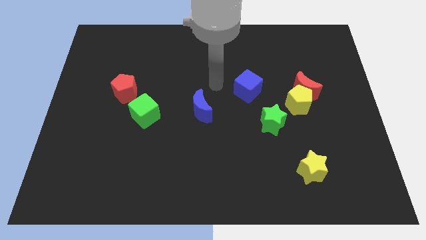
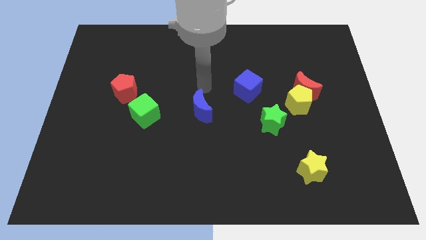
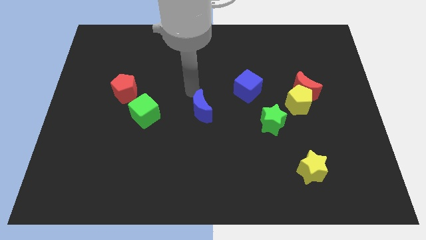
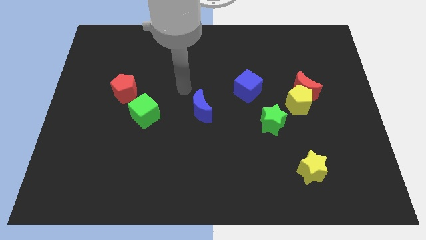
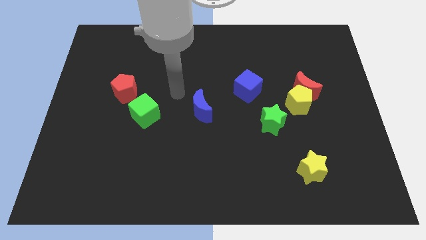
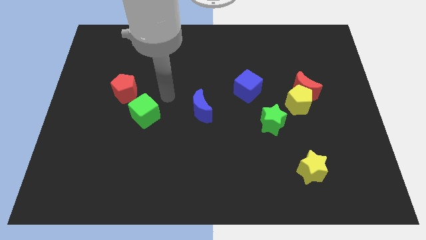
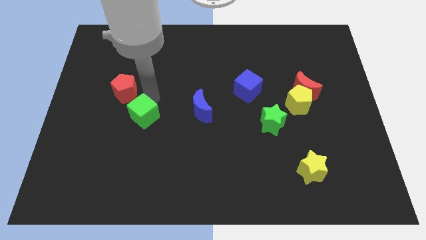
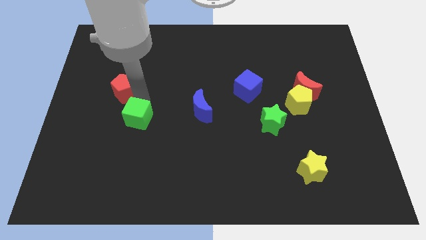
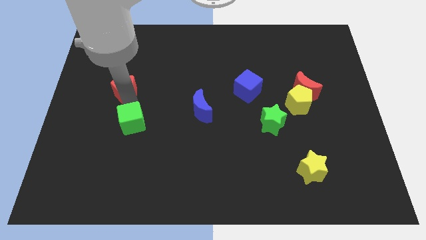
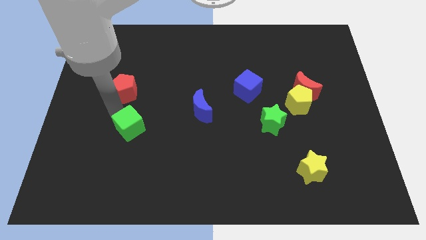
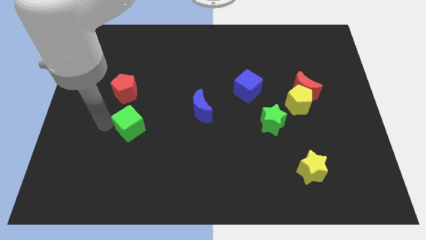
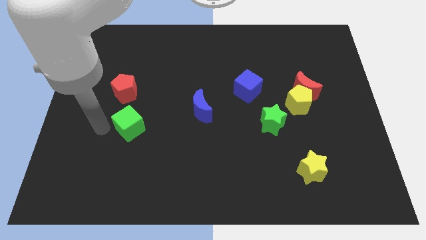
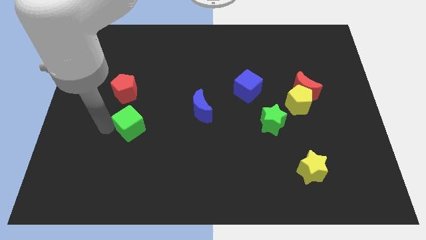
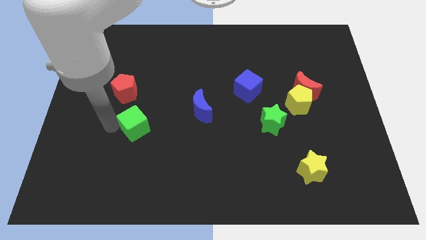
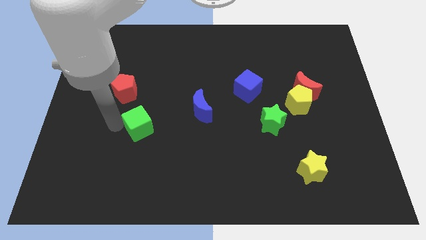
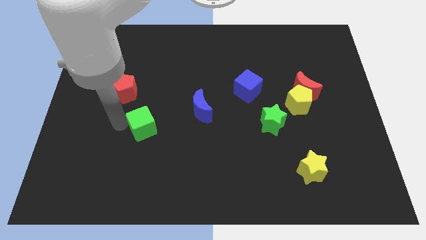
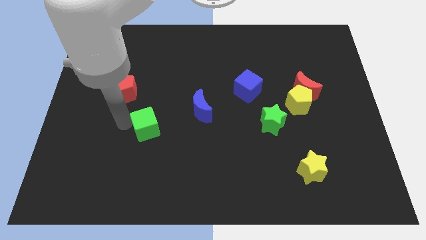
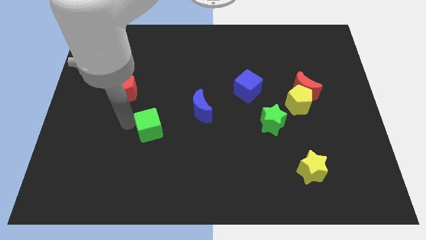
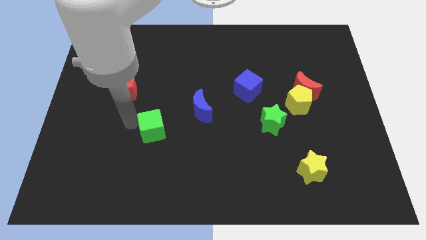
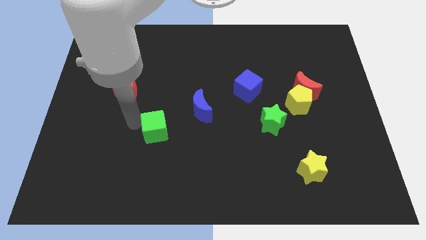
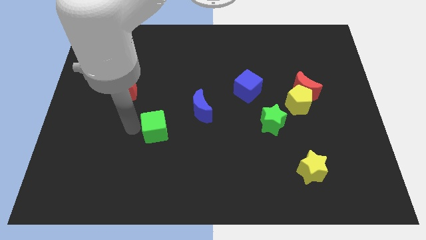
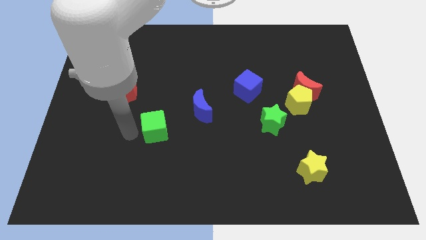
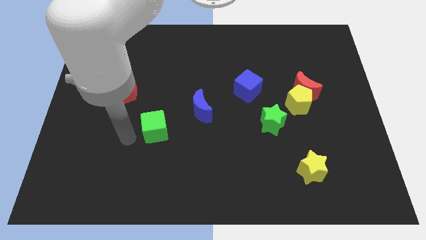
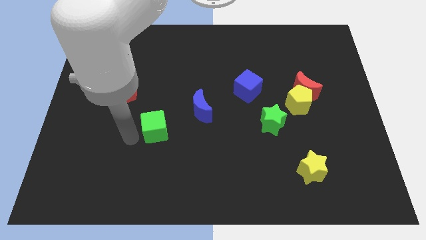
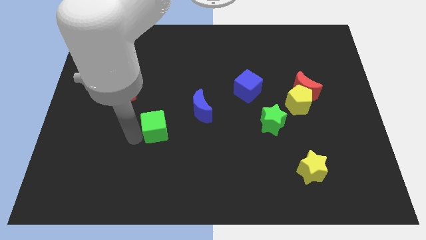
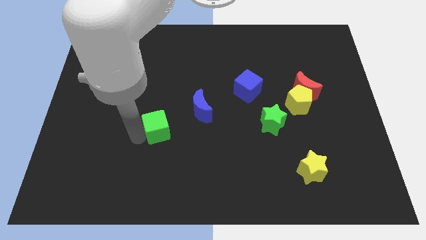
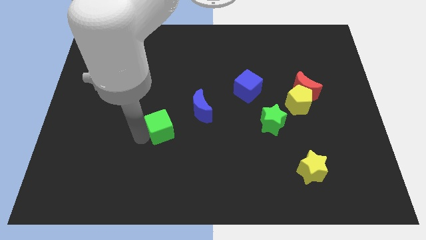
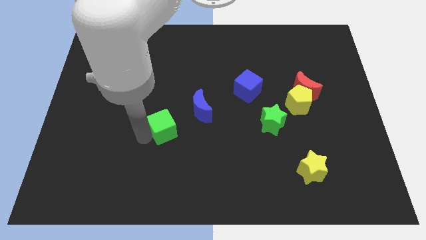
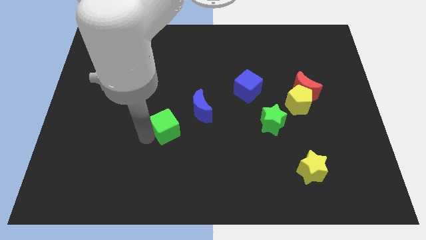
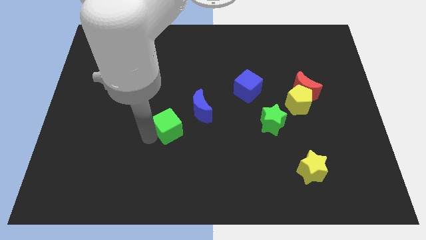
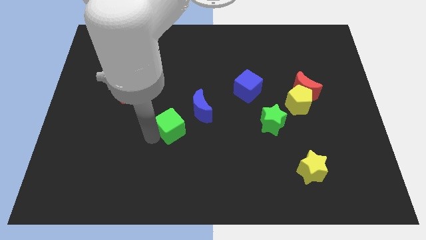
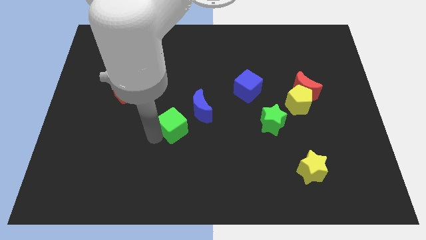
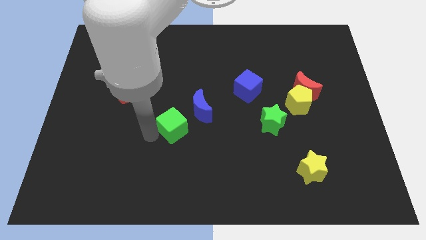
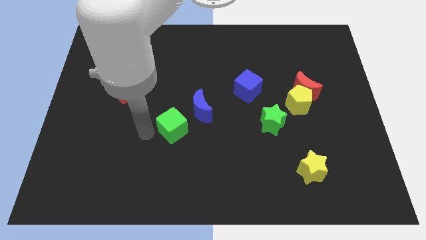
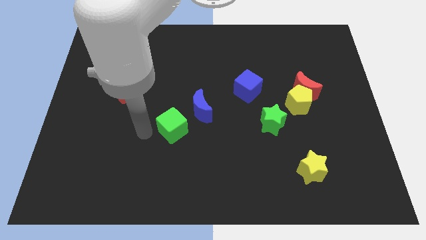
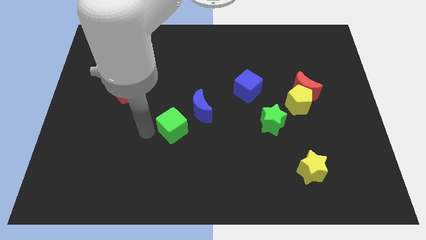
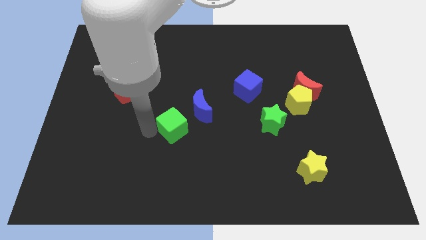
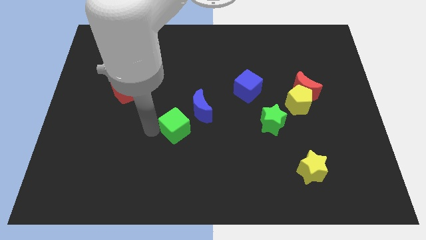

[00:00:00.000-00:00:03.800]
move the green cube a little bit to the right

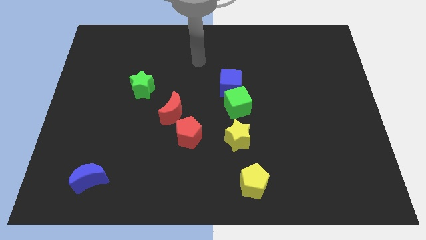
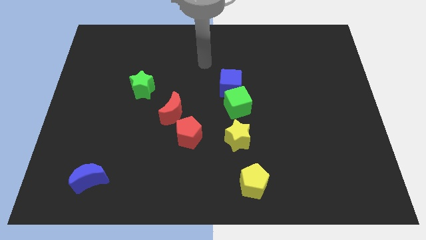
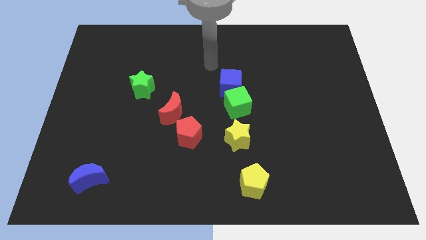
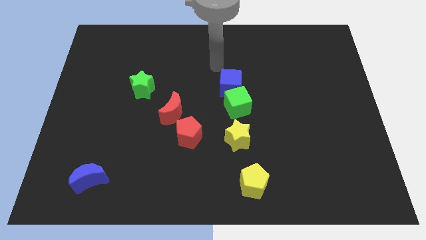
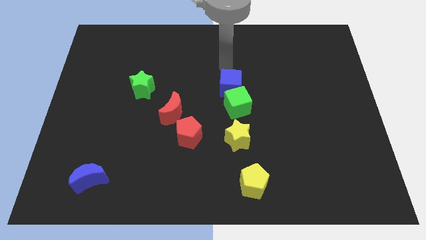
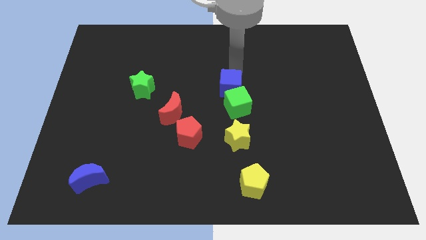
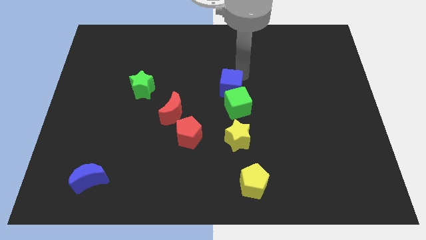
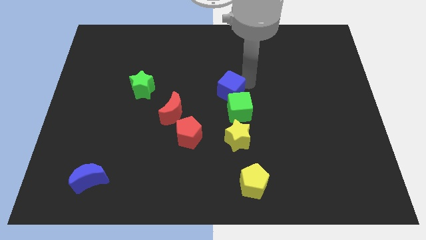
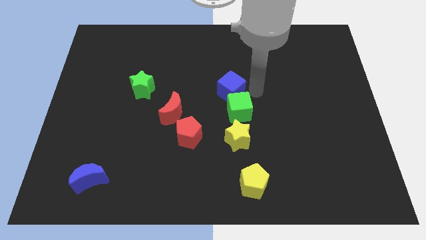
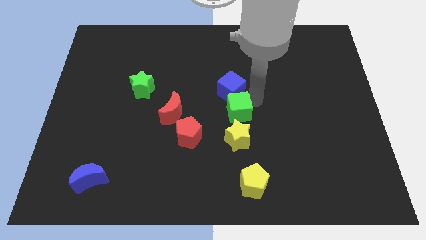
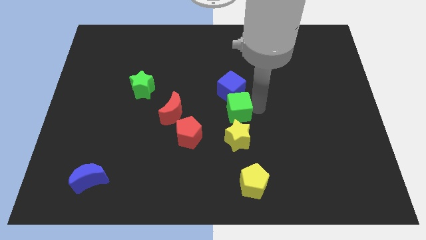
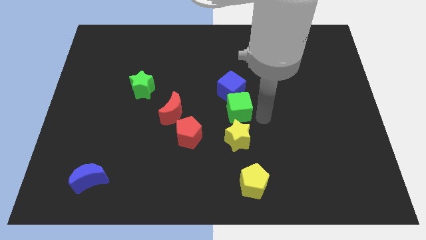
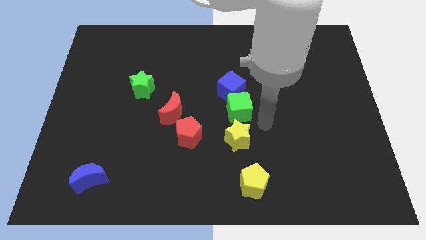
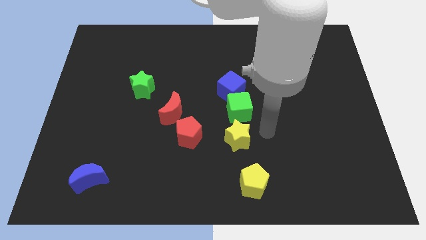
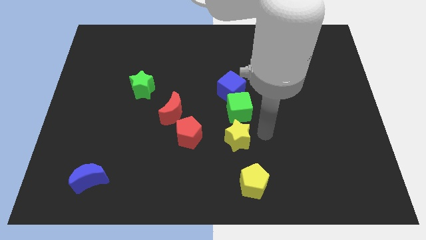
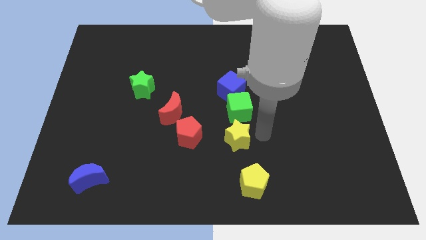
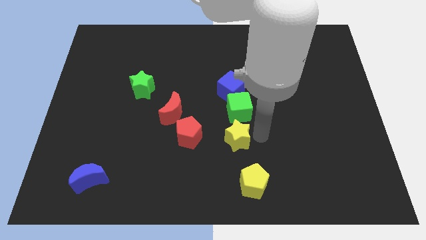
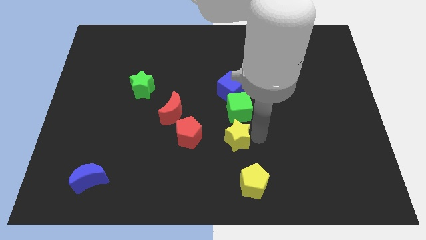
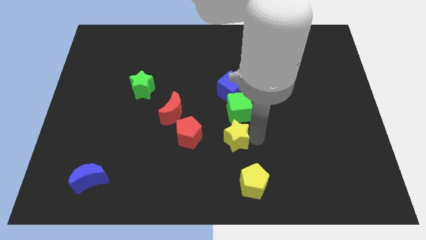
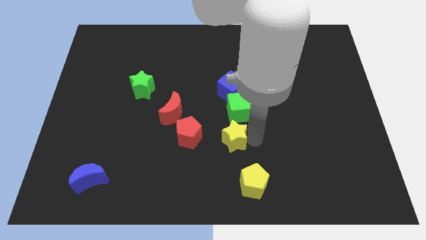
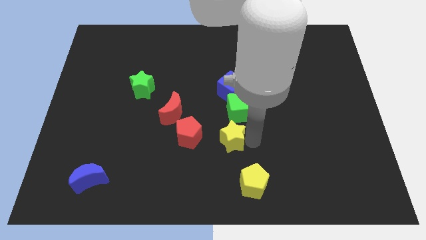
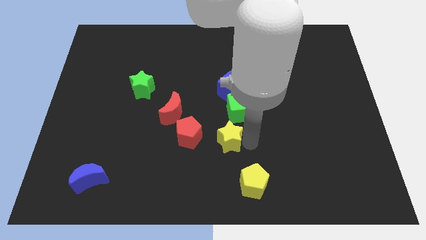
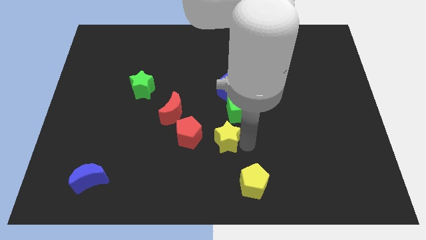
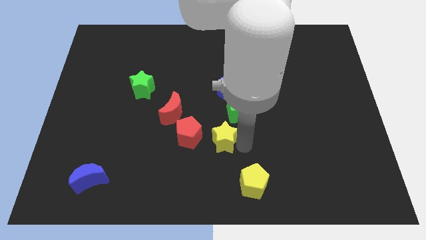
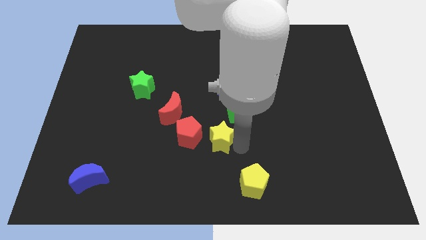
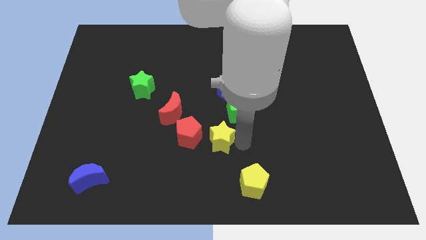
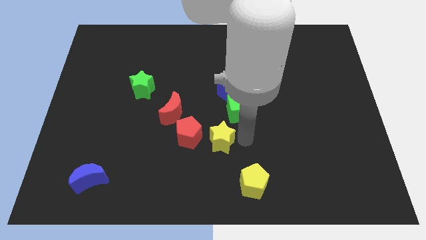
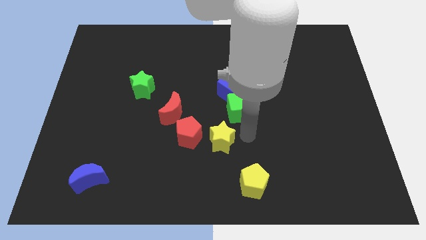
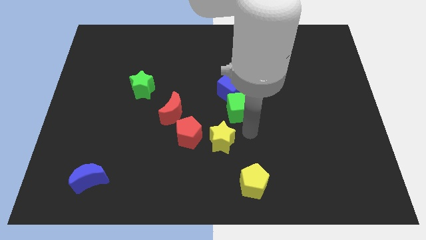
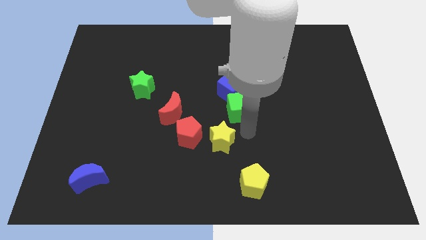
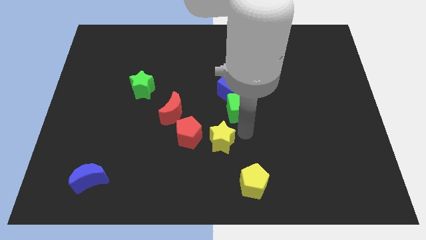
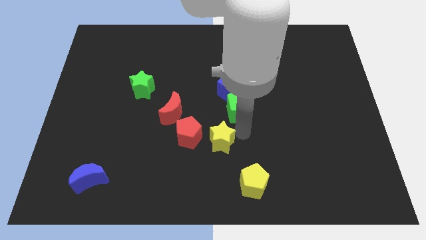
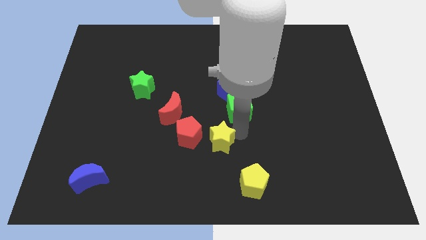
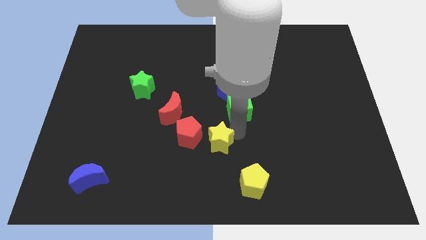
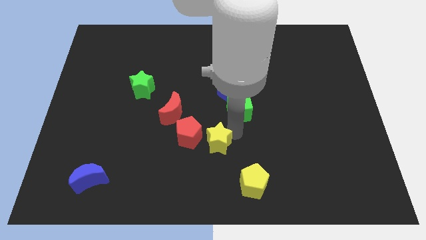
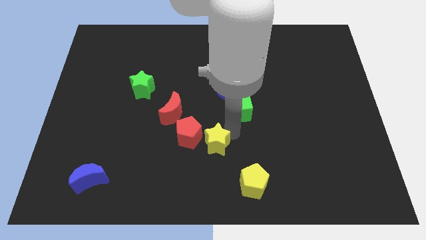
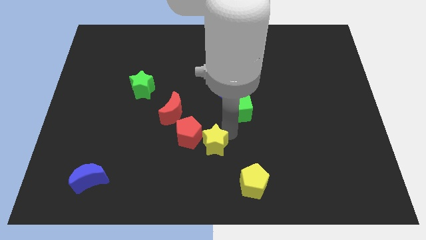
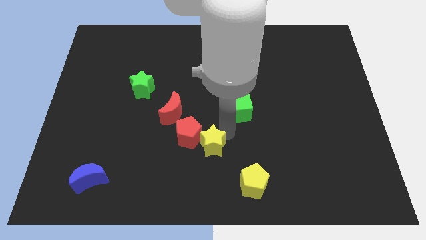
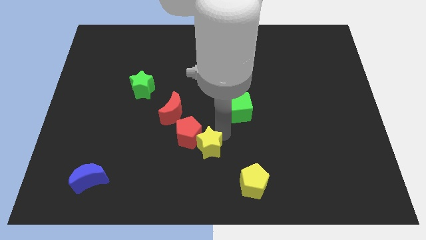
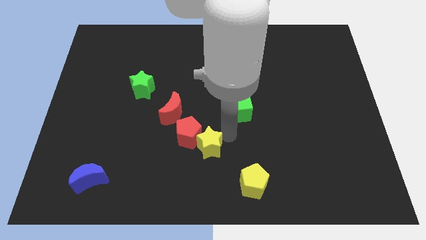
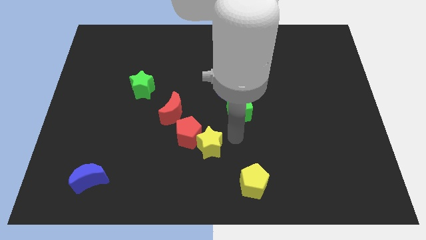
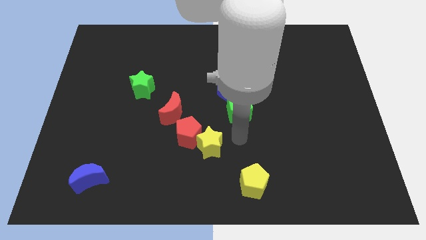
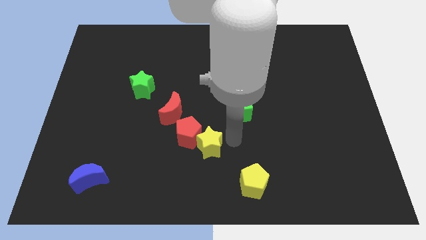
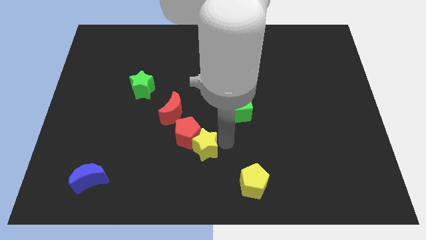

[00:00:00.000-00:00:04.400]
slide the yellow star to the left a bit

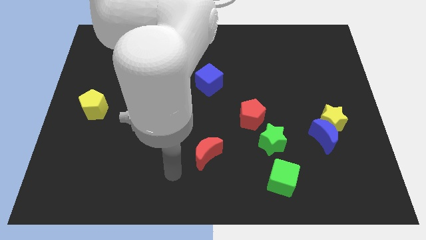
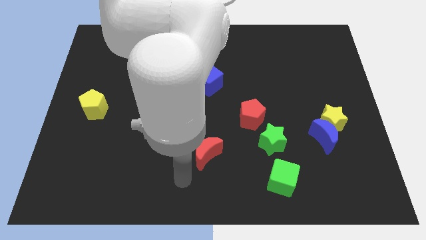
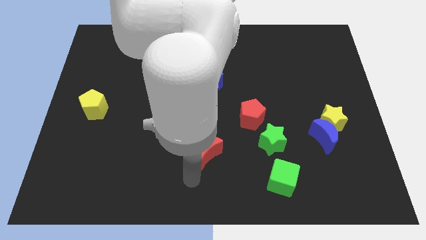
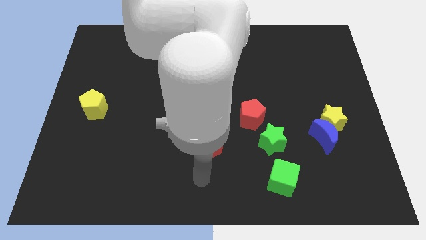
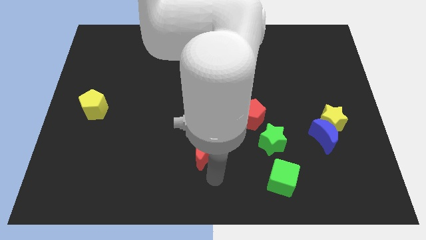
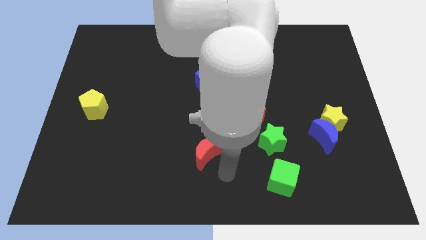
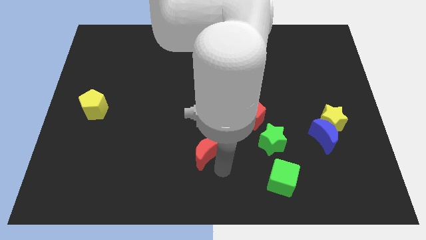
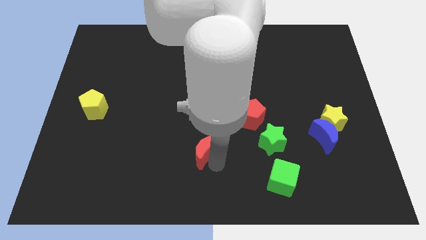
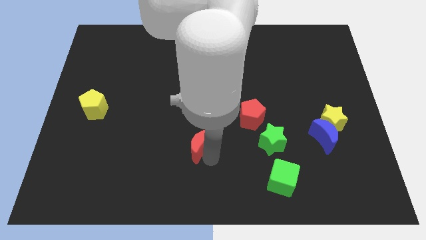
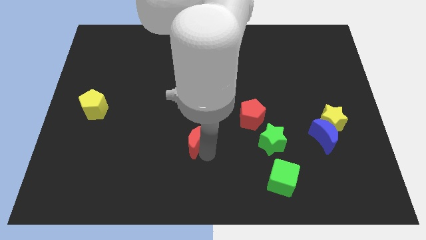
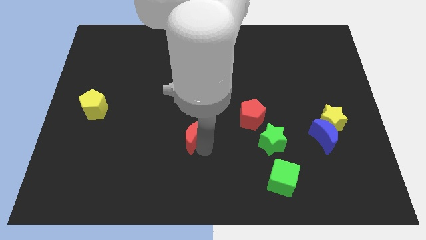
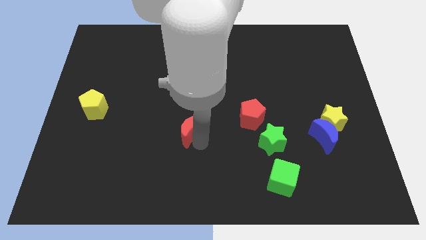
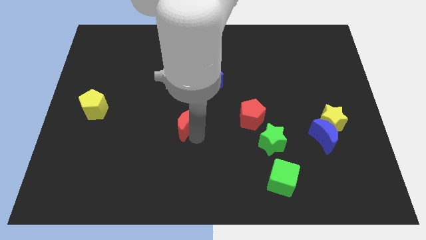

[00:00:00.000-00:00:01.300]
slightly push the red moon up and then left
